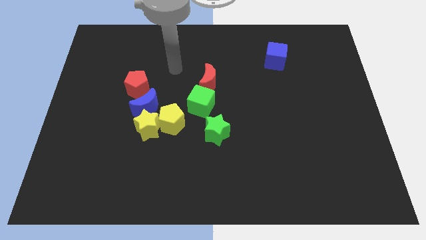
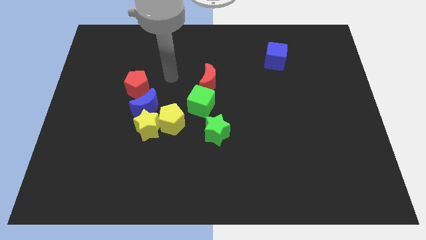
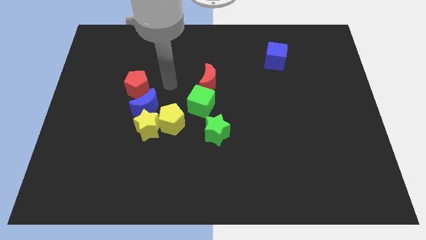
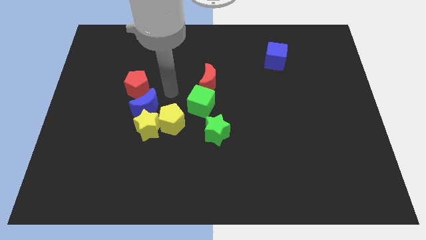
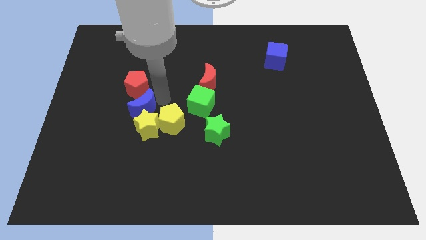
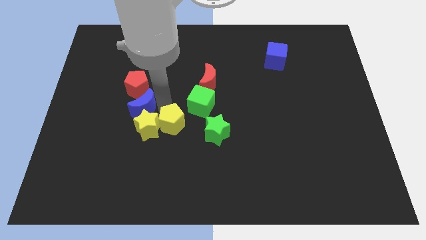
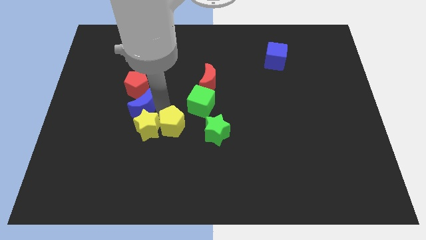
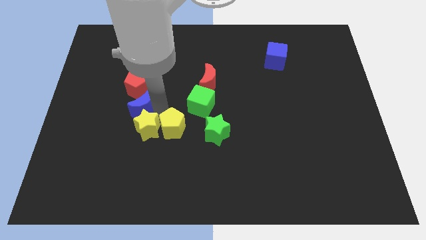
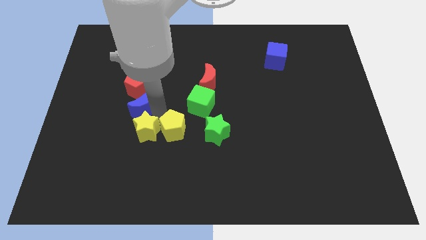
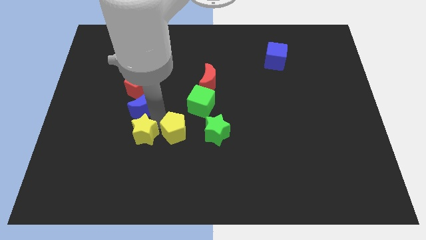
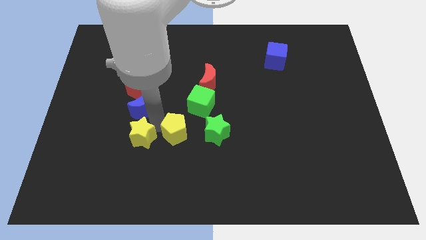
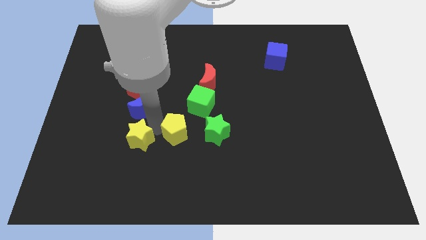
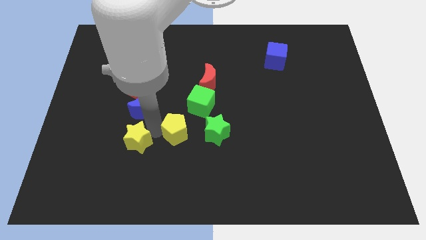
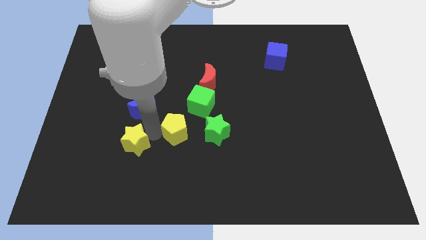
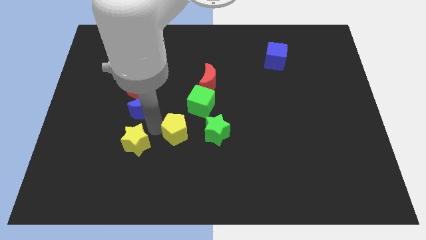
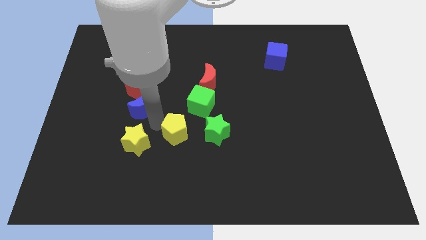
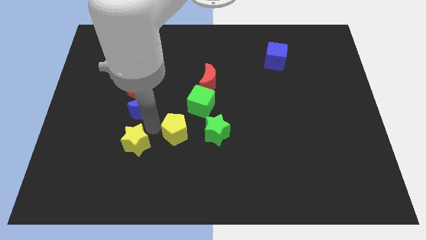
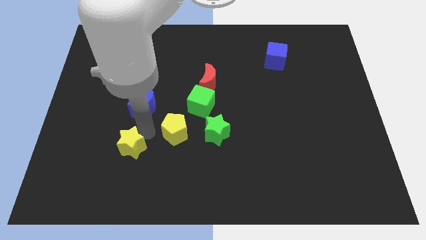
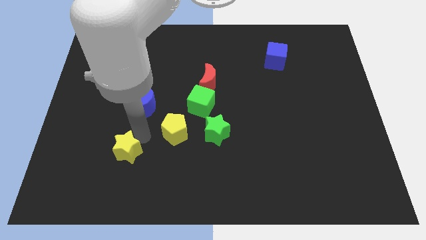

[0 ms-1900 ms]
separate the yellow star from the blue moon and yellow pentagon

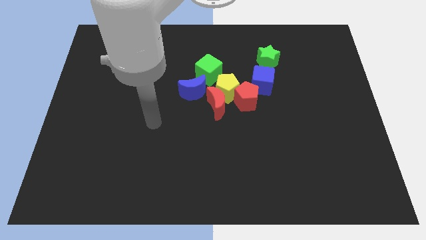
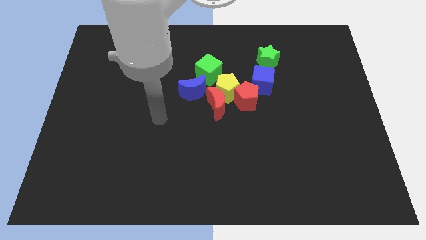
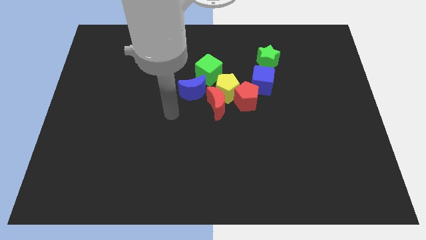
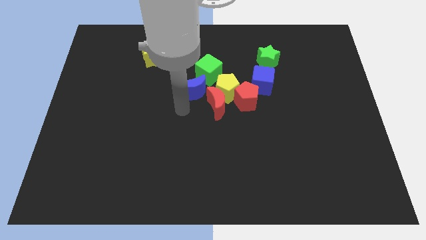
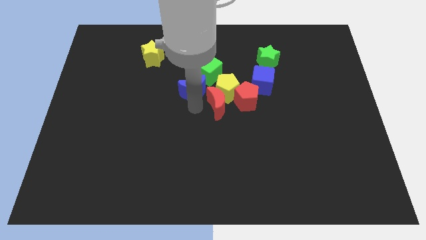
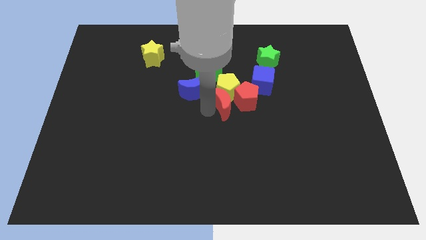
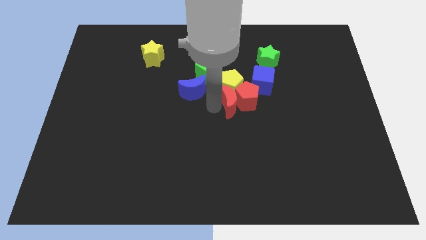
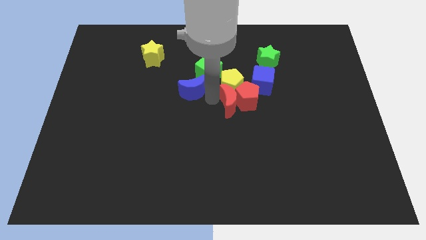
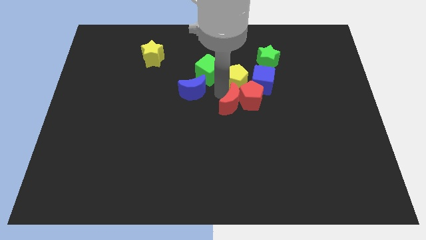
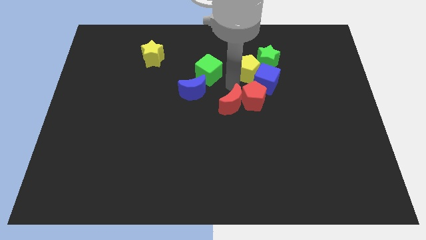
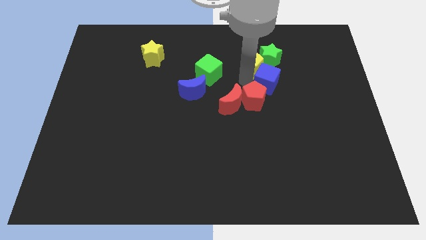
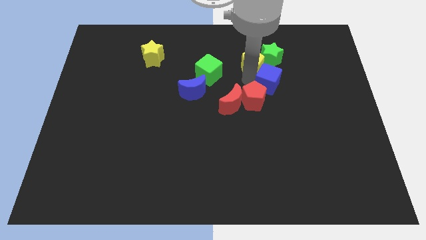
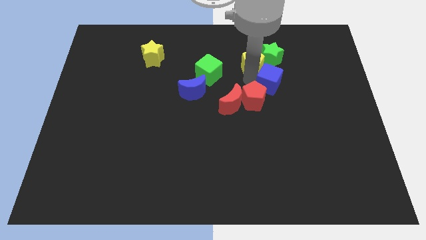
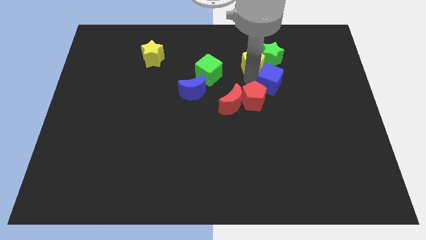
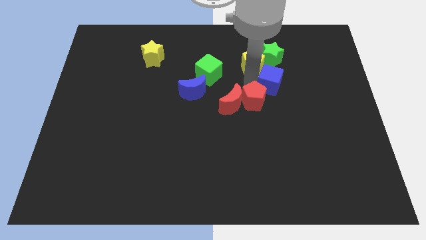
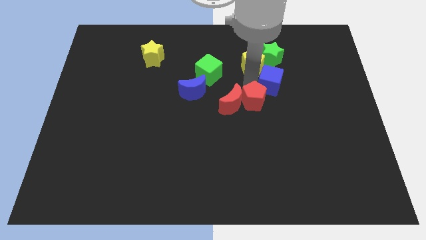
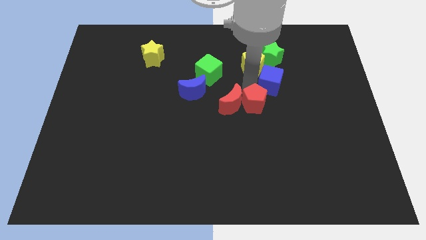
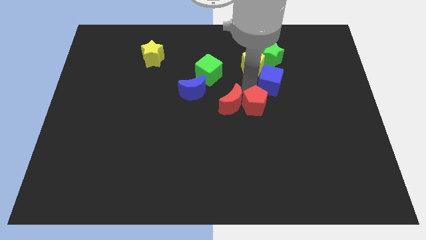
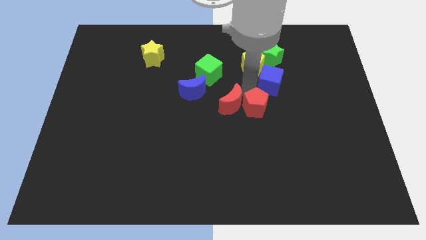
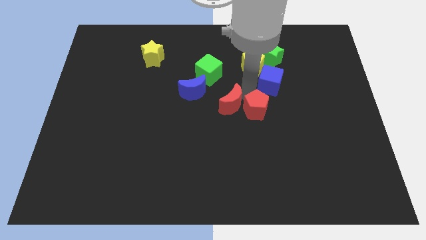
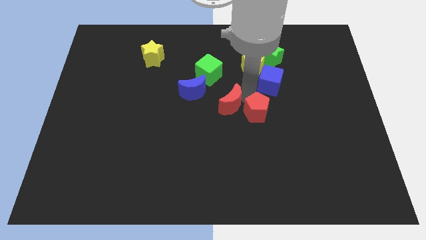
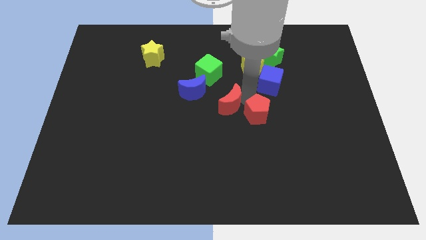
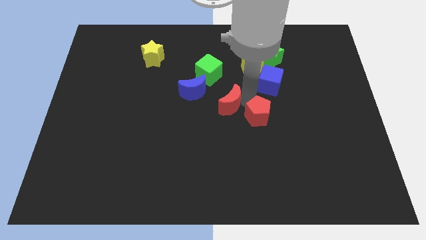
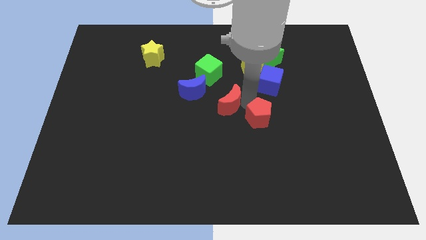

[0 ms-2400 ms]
separate the red pentagon from the group of blocks

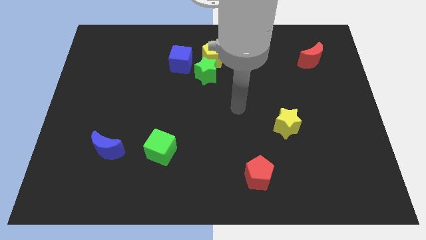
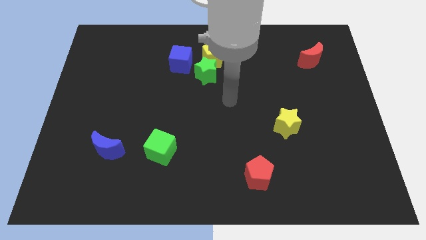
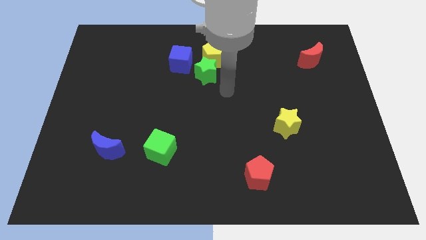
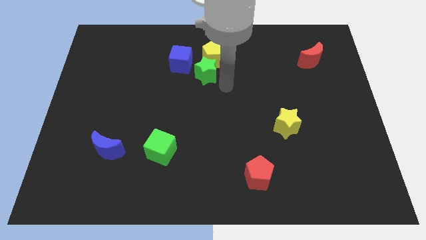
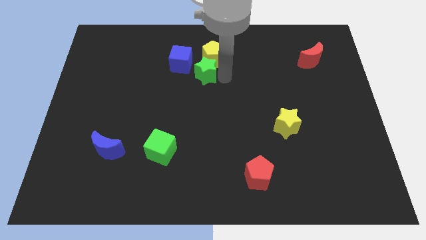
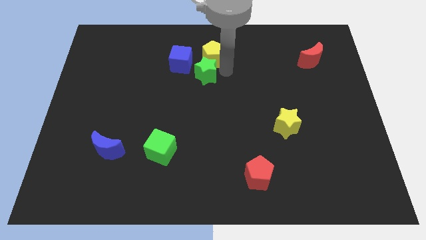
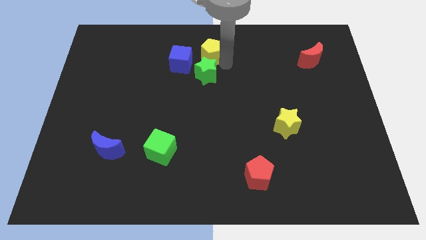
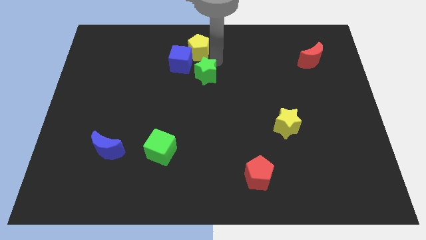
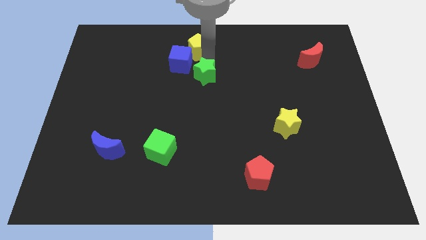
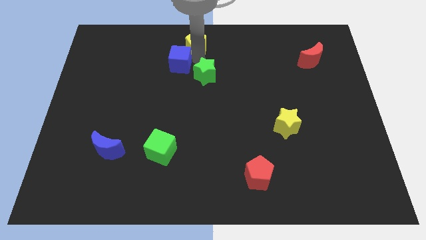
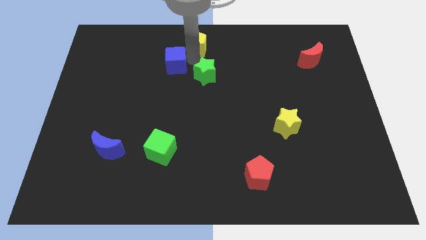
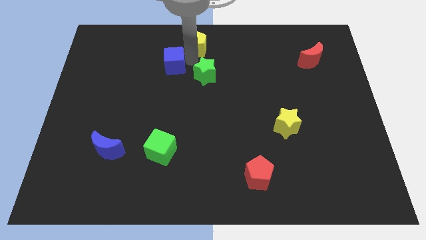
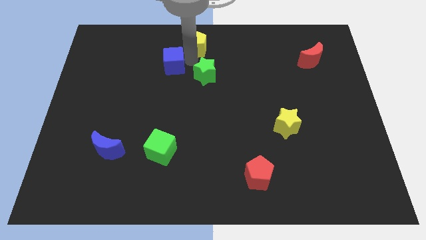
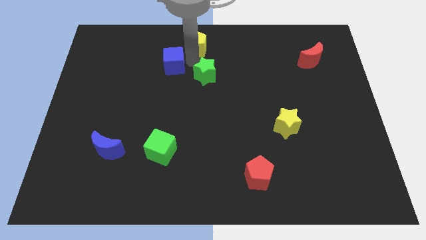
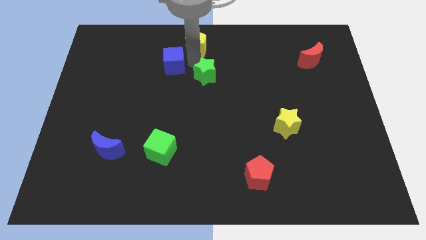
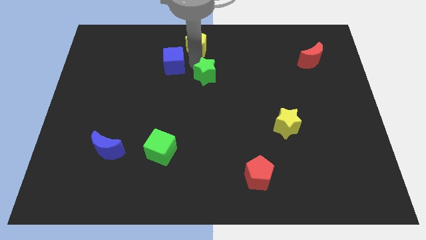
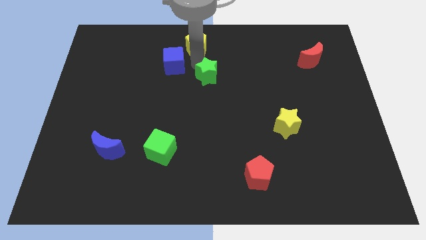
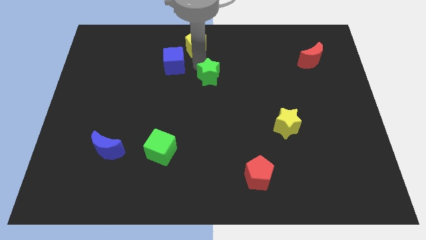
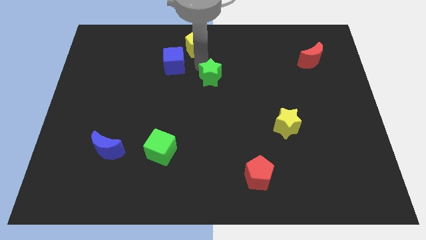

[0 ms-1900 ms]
pull the green star apart from the yellow pentagon and blue cube

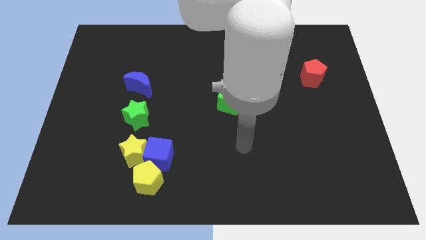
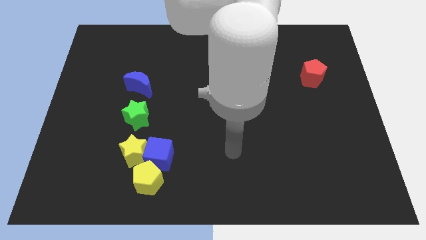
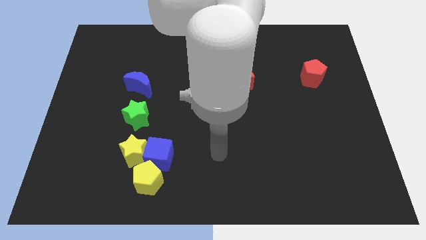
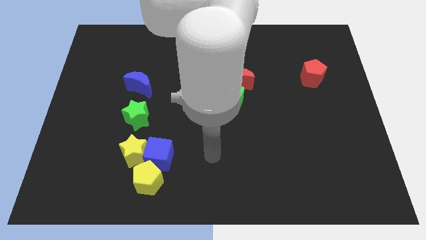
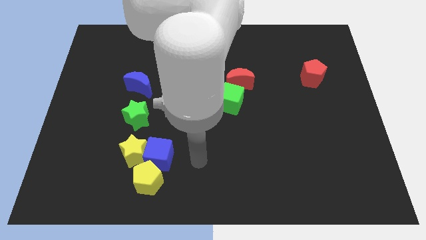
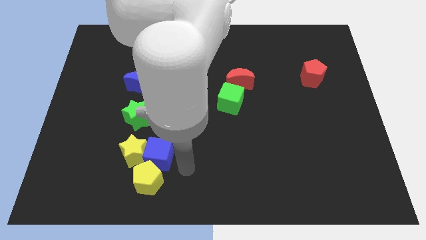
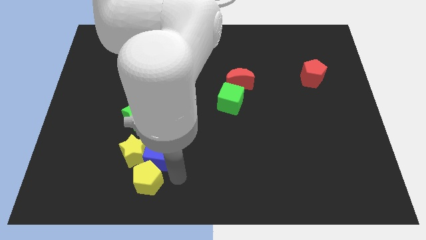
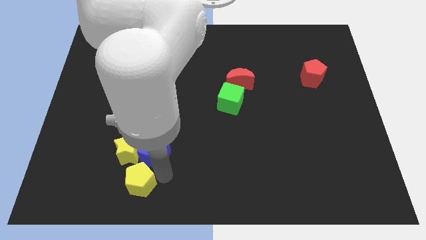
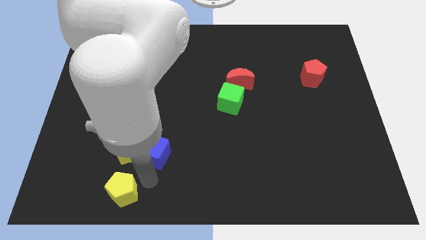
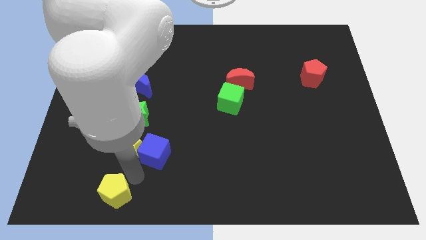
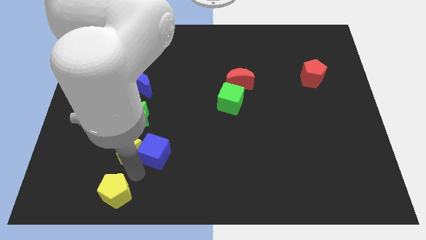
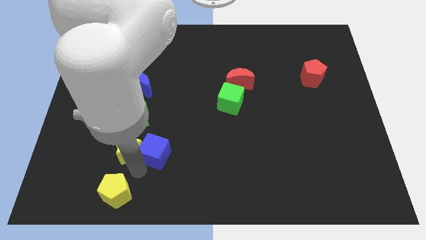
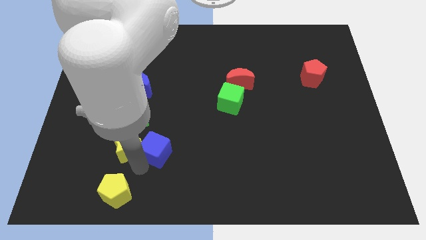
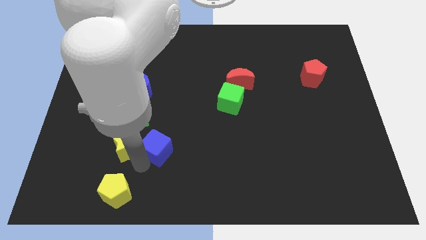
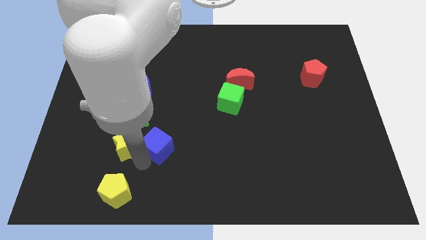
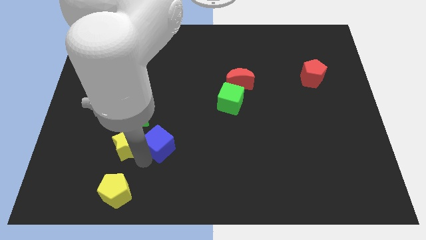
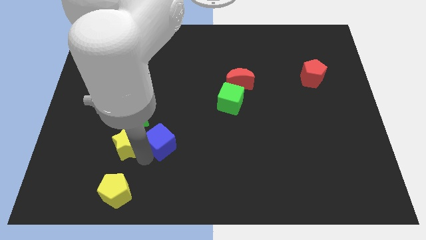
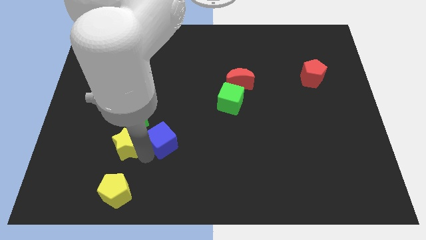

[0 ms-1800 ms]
separate the blue cube from the yellow star and yellow pentagon

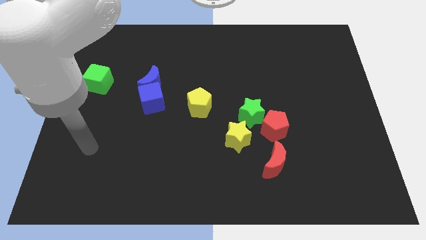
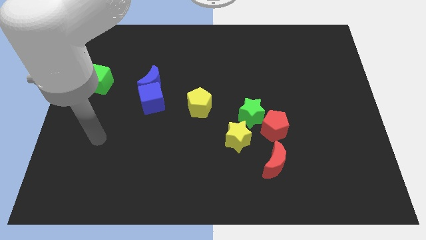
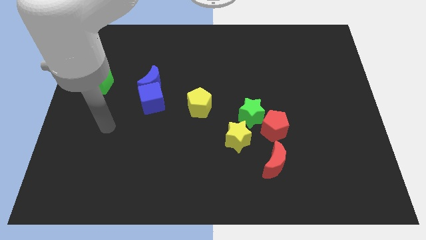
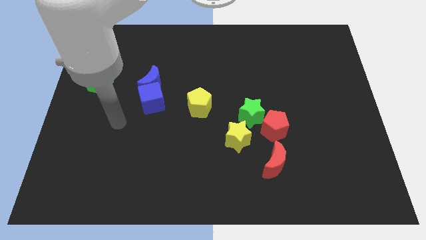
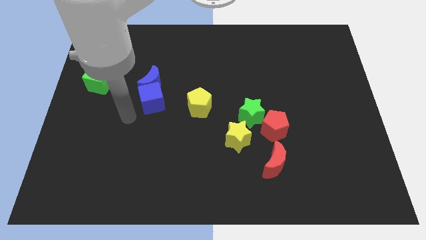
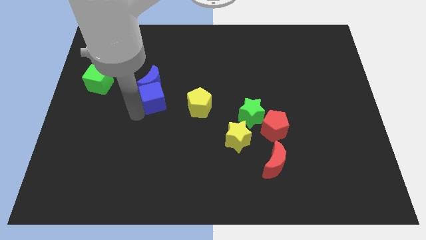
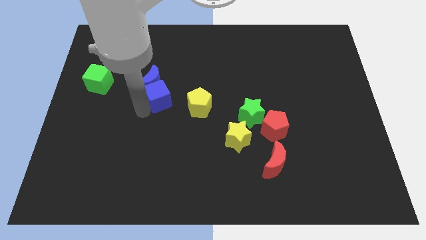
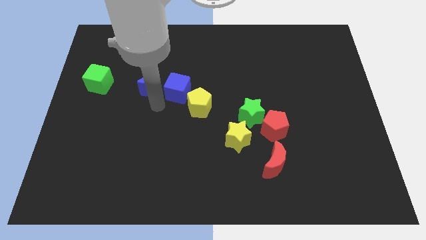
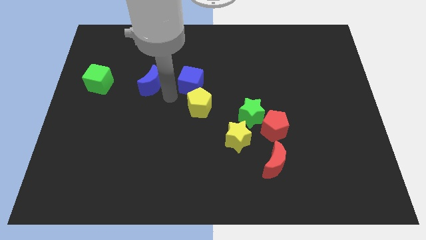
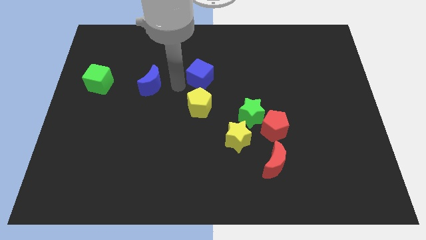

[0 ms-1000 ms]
separate the blue moon from the blue cube

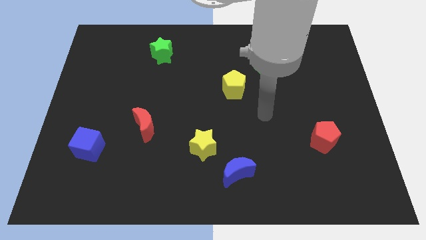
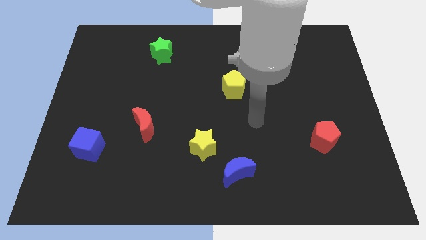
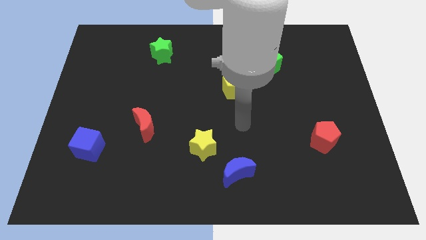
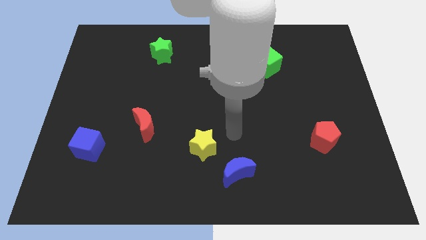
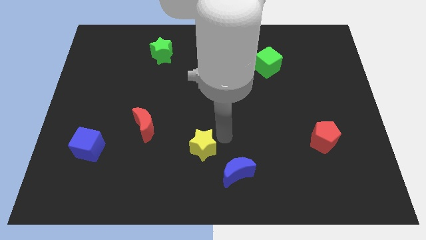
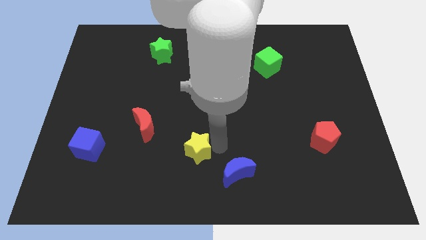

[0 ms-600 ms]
separate the blue moon from the yellow star
